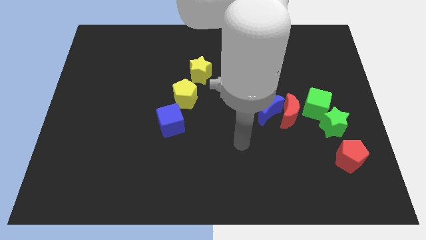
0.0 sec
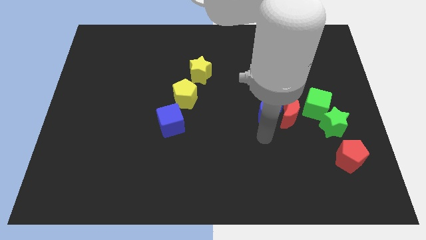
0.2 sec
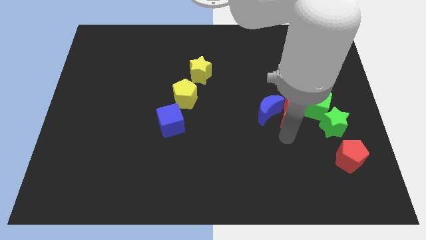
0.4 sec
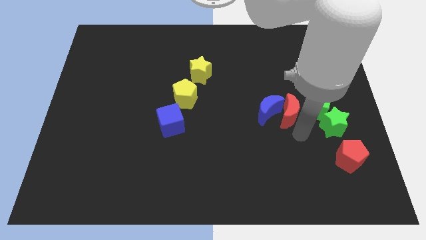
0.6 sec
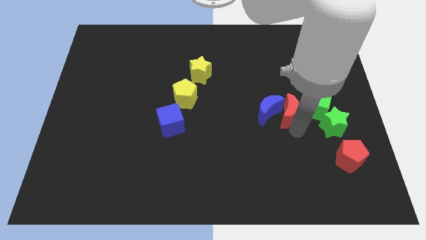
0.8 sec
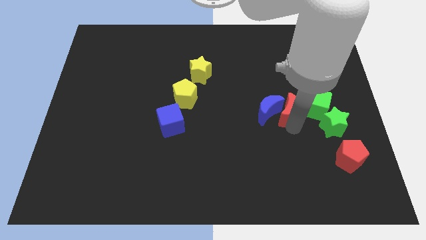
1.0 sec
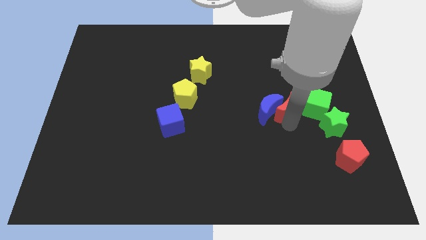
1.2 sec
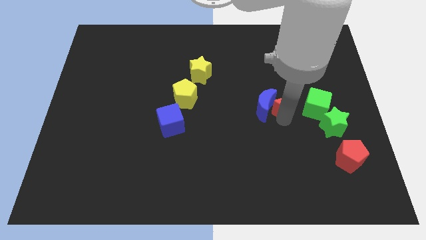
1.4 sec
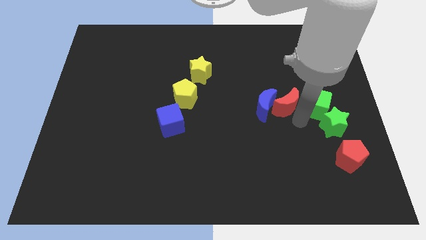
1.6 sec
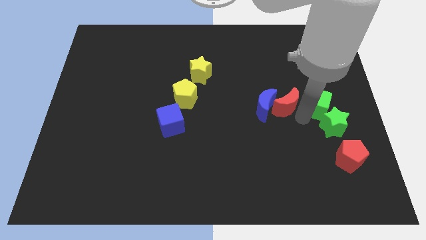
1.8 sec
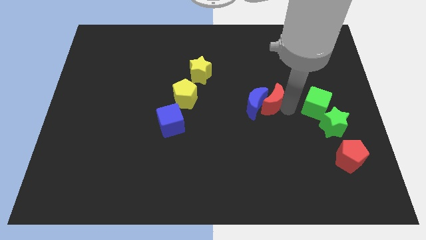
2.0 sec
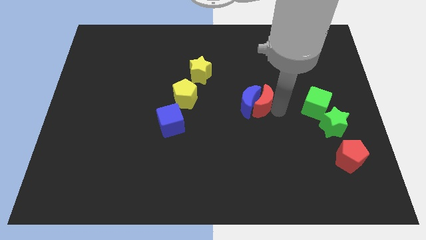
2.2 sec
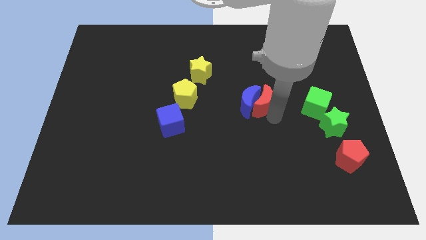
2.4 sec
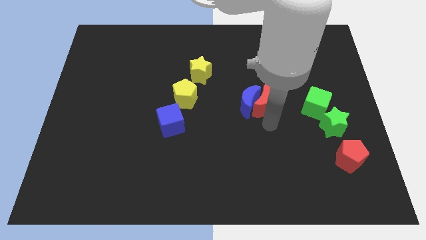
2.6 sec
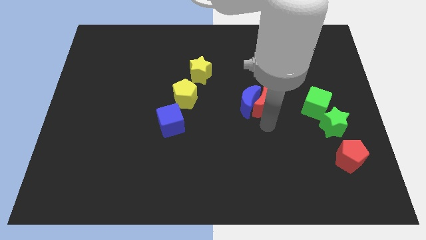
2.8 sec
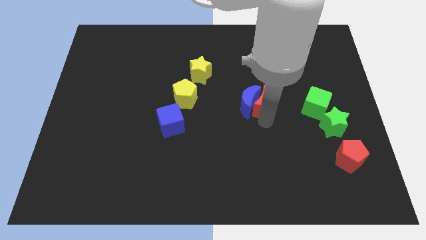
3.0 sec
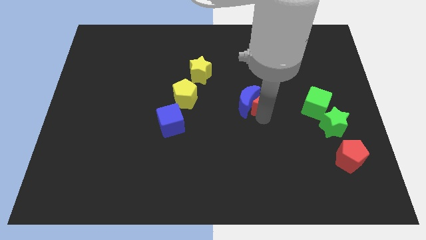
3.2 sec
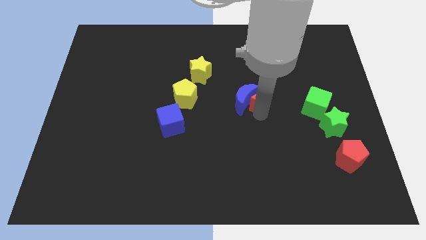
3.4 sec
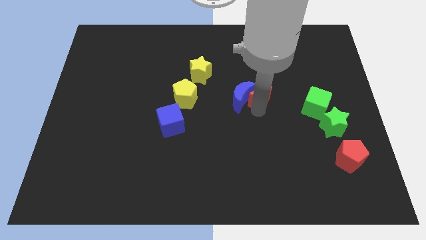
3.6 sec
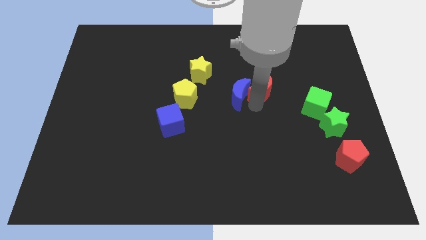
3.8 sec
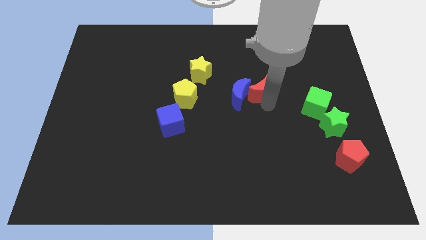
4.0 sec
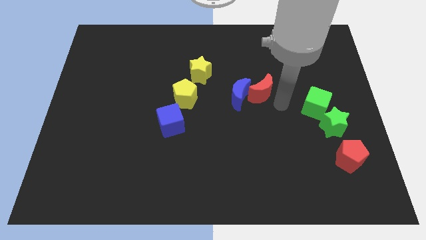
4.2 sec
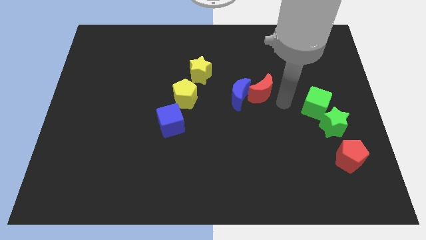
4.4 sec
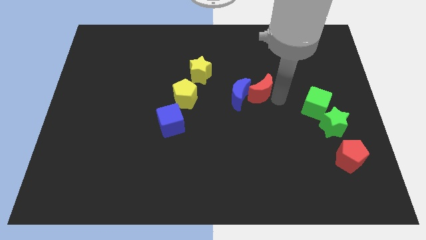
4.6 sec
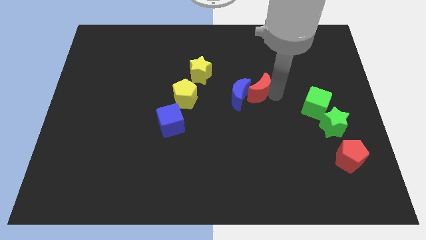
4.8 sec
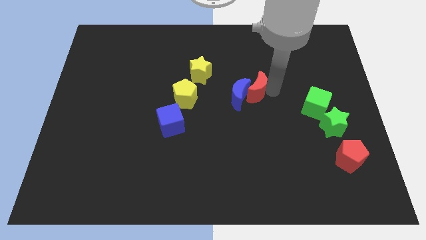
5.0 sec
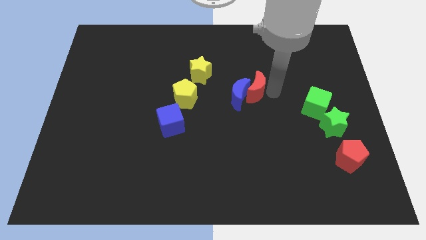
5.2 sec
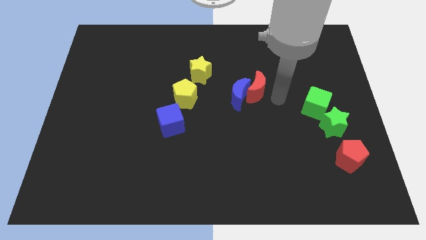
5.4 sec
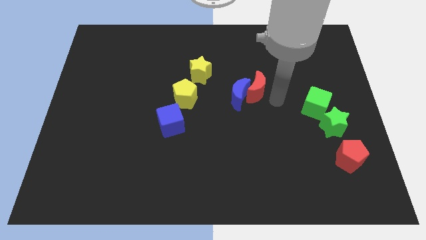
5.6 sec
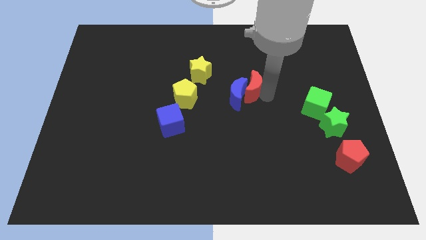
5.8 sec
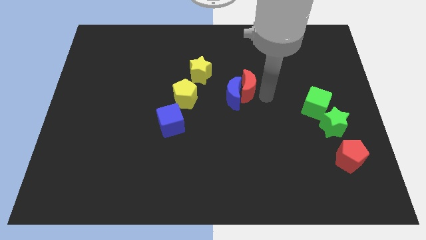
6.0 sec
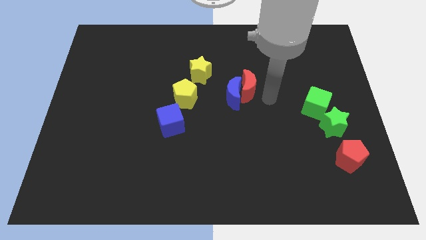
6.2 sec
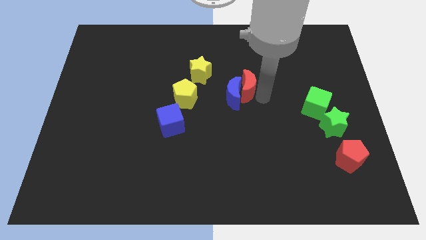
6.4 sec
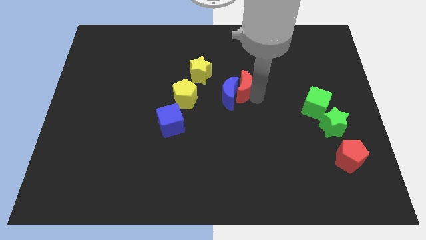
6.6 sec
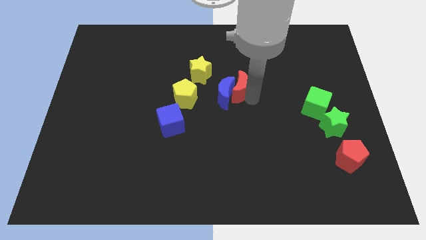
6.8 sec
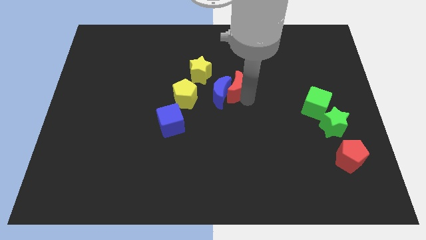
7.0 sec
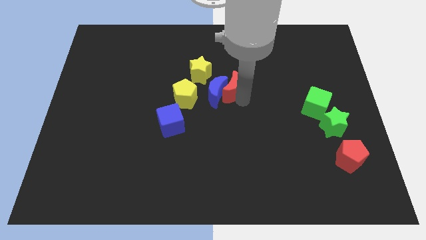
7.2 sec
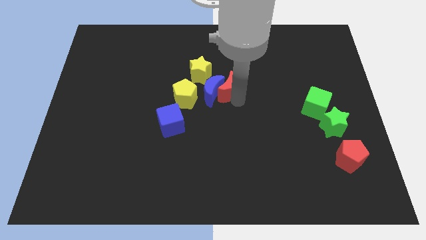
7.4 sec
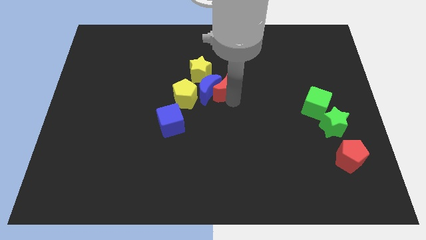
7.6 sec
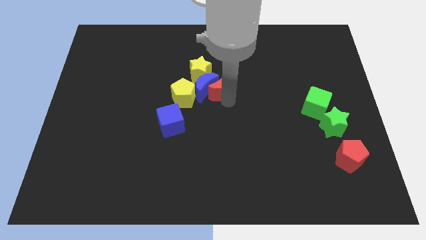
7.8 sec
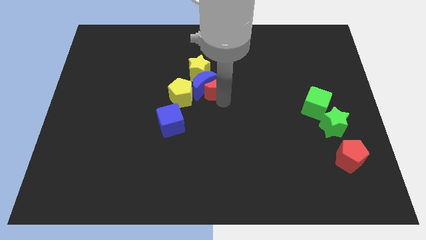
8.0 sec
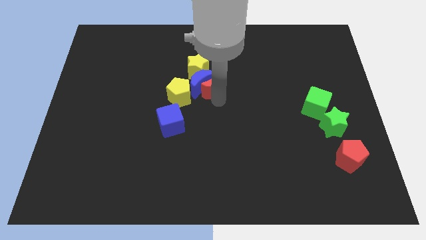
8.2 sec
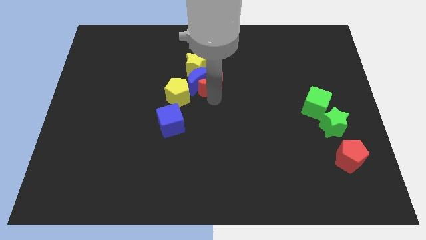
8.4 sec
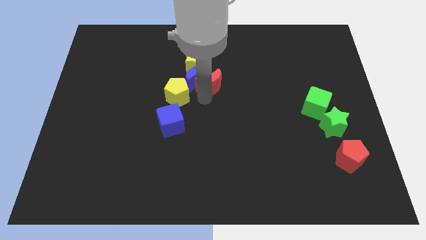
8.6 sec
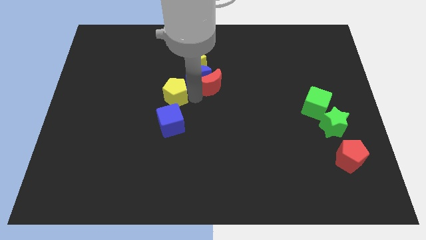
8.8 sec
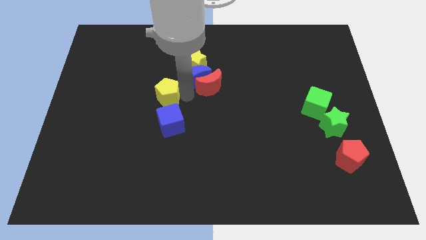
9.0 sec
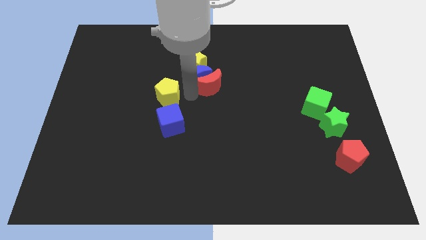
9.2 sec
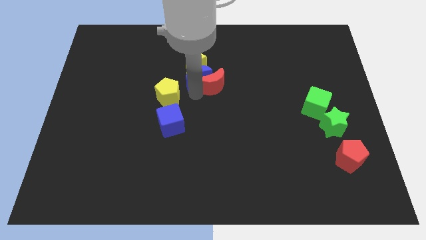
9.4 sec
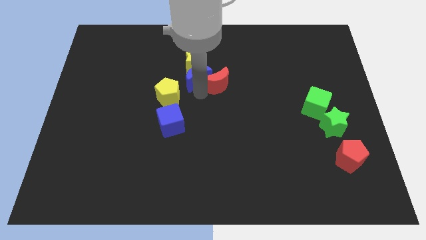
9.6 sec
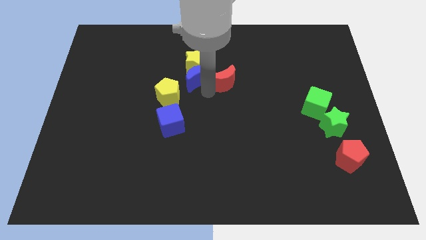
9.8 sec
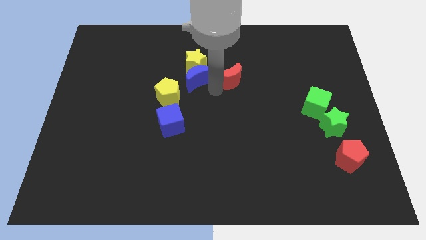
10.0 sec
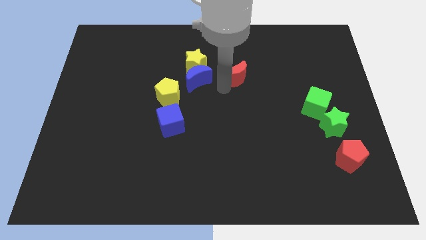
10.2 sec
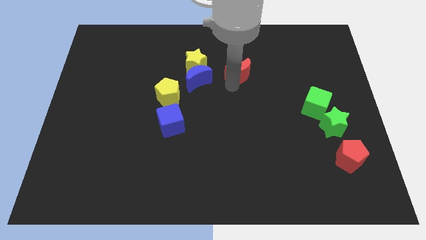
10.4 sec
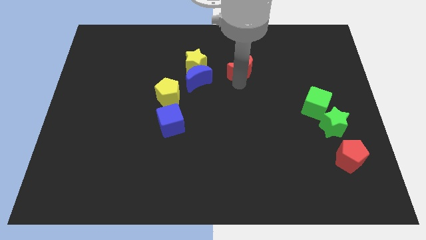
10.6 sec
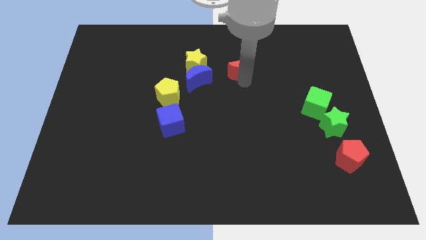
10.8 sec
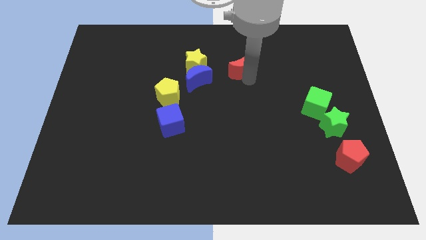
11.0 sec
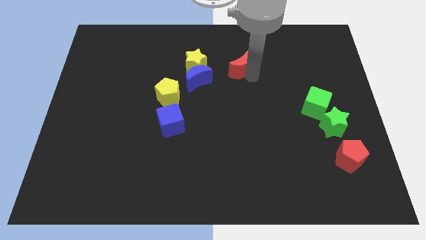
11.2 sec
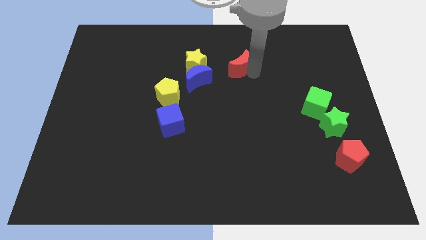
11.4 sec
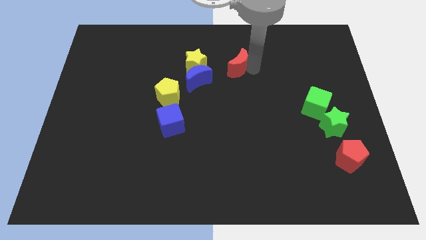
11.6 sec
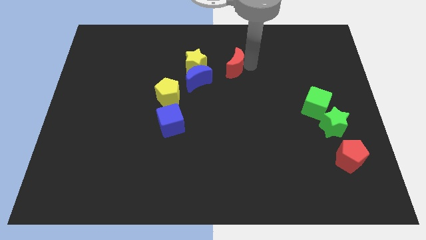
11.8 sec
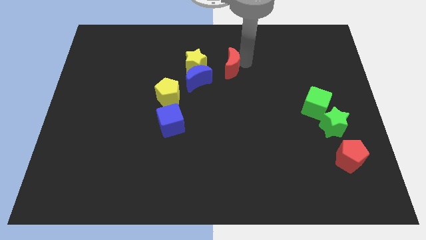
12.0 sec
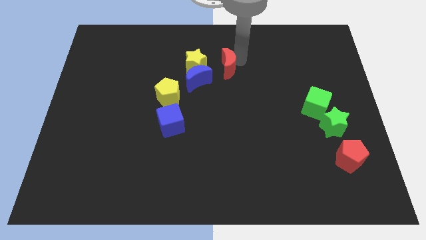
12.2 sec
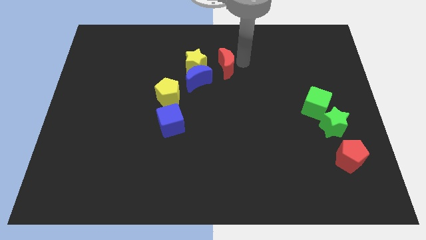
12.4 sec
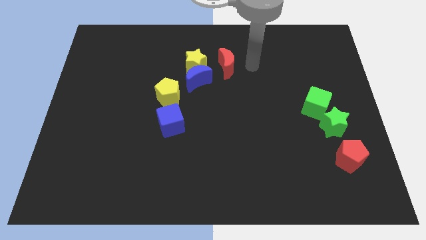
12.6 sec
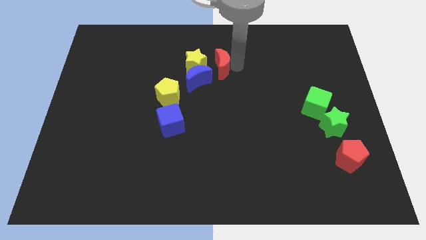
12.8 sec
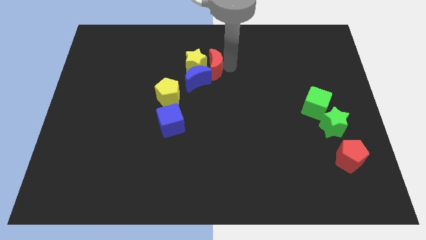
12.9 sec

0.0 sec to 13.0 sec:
put the red moon to the yellow star
